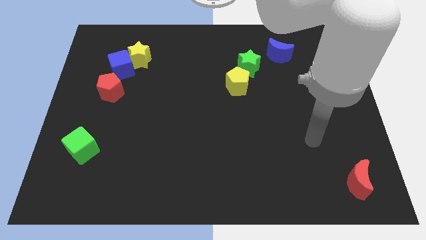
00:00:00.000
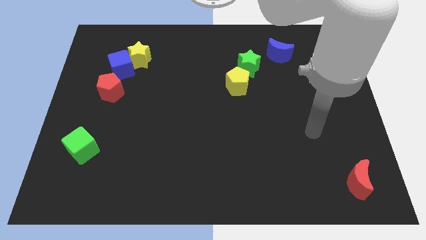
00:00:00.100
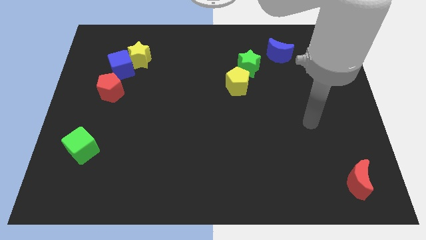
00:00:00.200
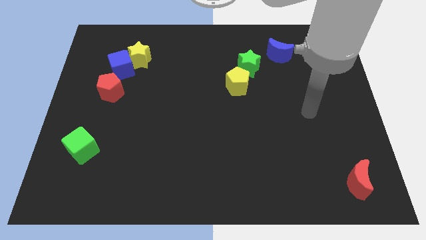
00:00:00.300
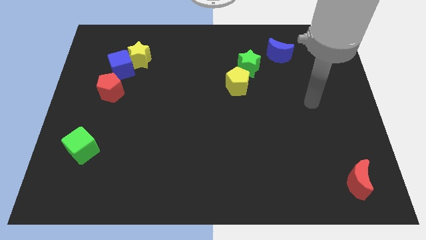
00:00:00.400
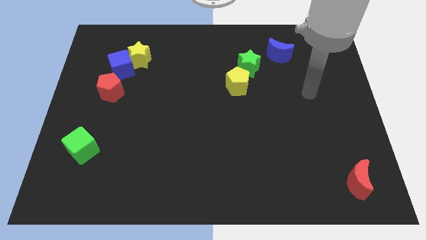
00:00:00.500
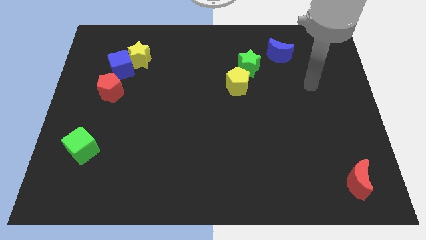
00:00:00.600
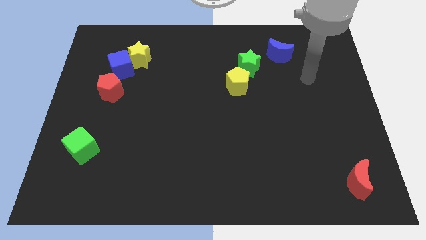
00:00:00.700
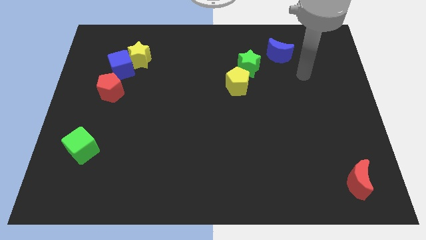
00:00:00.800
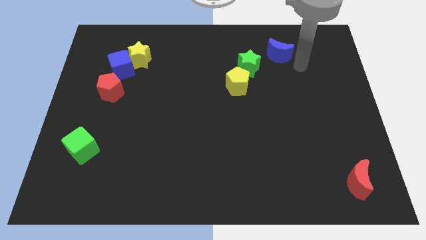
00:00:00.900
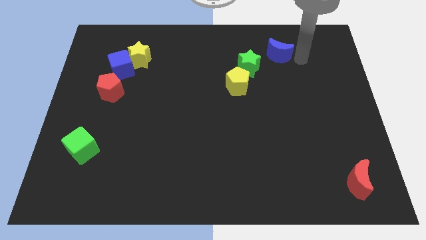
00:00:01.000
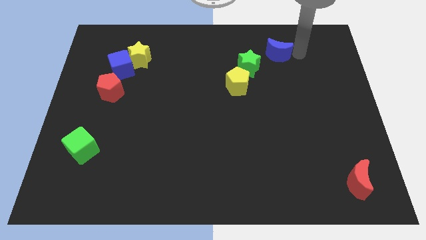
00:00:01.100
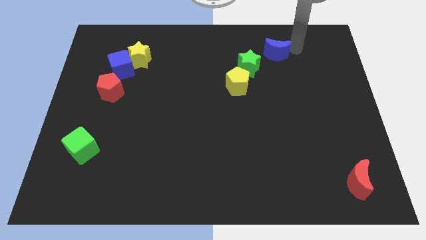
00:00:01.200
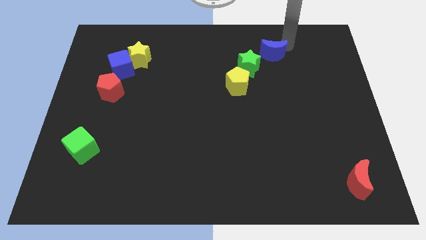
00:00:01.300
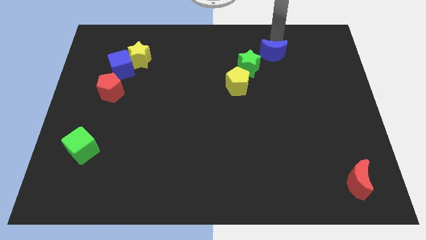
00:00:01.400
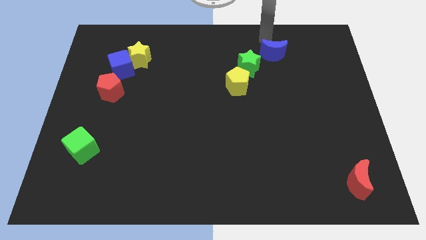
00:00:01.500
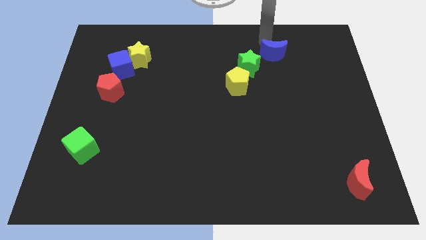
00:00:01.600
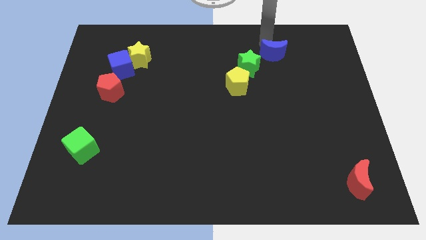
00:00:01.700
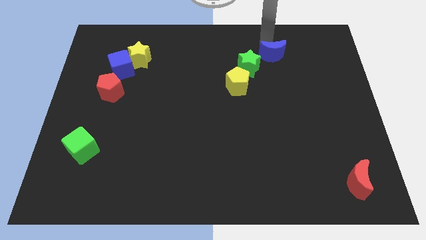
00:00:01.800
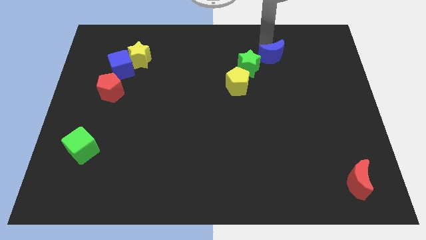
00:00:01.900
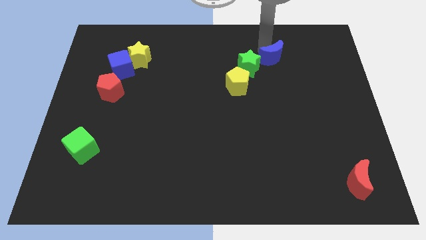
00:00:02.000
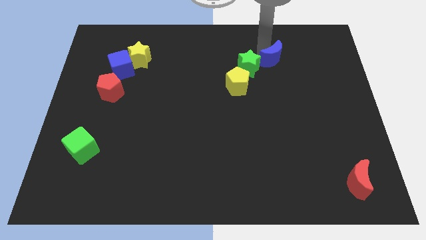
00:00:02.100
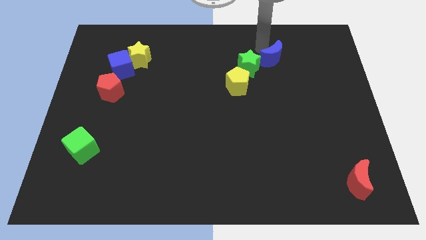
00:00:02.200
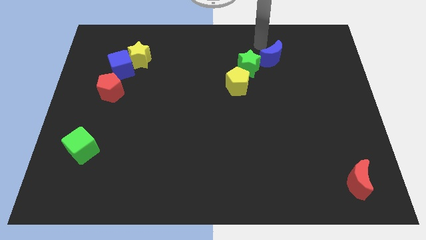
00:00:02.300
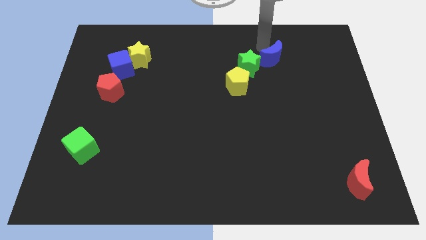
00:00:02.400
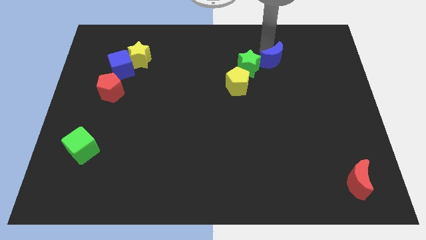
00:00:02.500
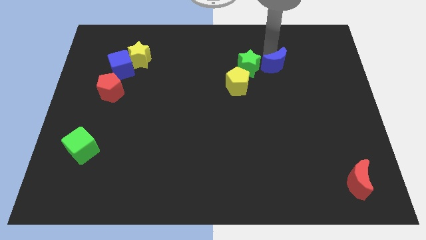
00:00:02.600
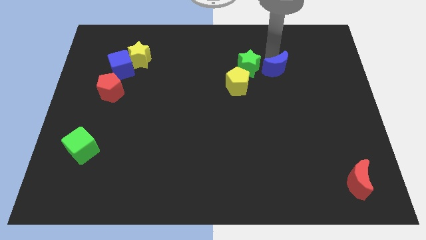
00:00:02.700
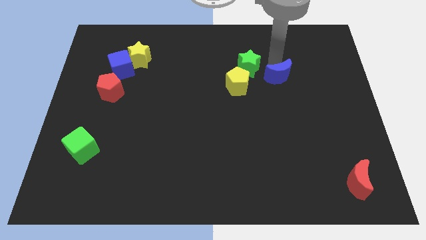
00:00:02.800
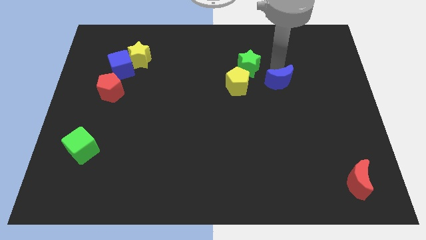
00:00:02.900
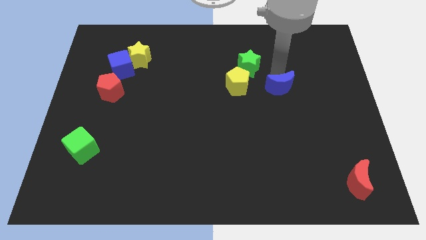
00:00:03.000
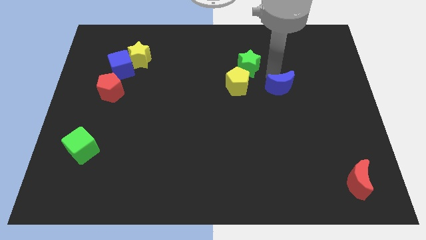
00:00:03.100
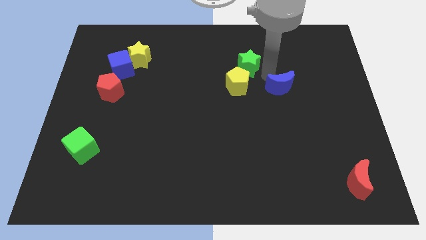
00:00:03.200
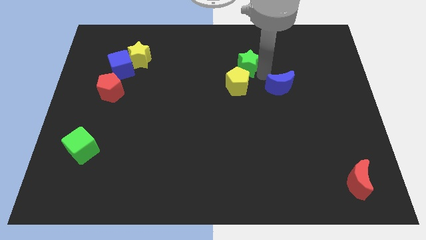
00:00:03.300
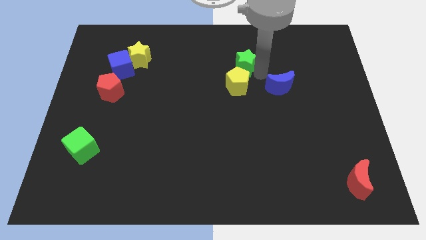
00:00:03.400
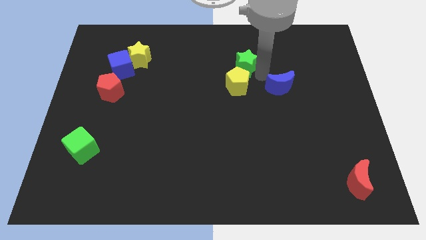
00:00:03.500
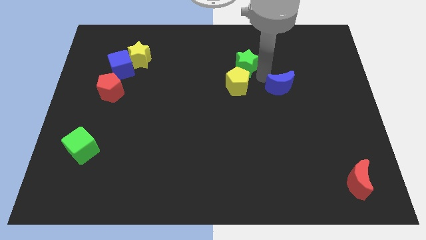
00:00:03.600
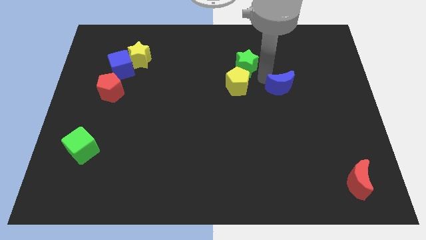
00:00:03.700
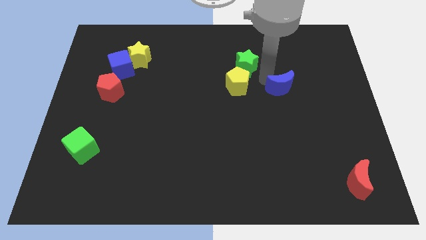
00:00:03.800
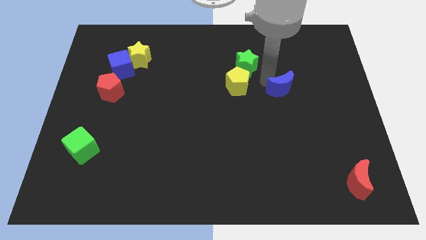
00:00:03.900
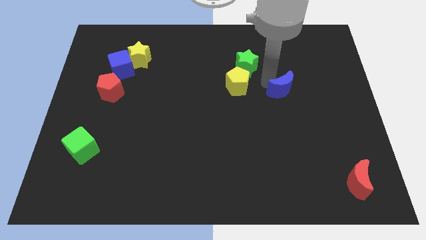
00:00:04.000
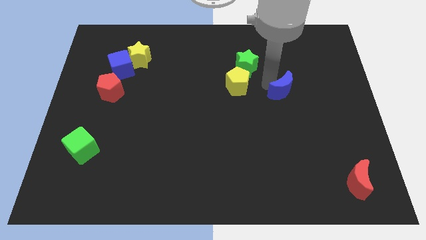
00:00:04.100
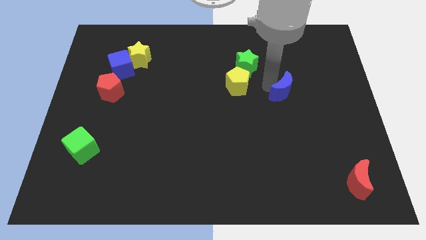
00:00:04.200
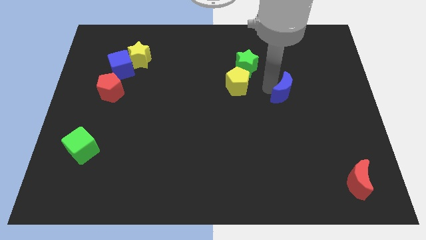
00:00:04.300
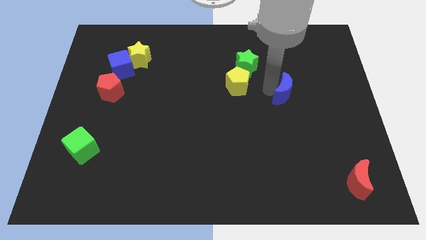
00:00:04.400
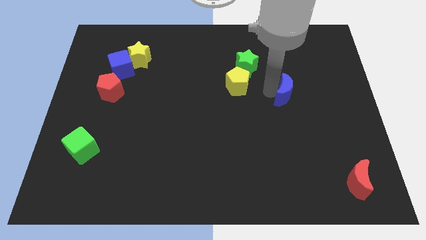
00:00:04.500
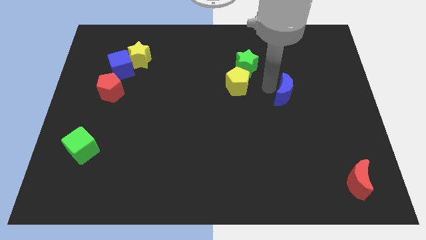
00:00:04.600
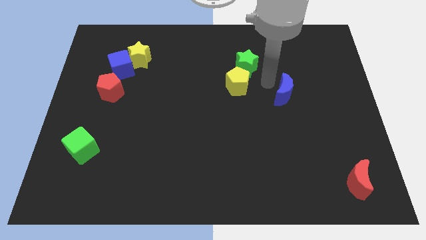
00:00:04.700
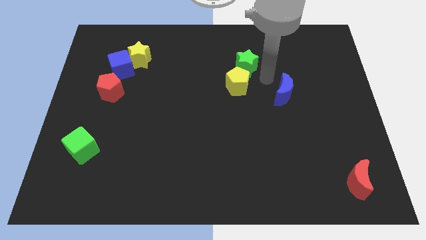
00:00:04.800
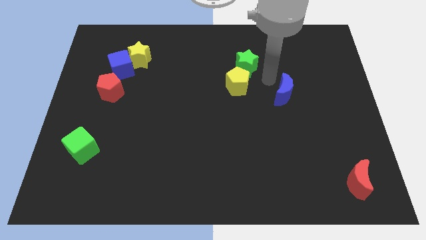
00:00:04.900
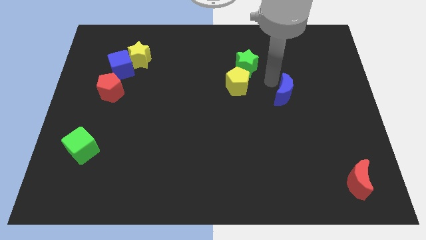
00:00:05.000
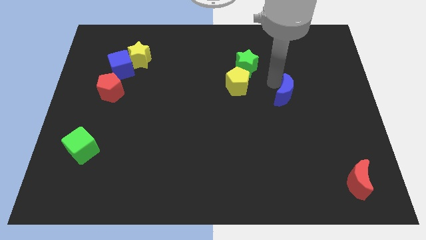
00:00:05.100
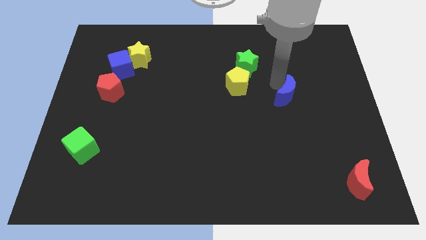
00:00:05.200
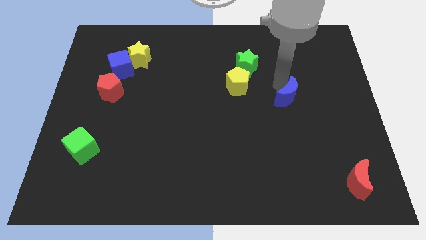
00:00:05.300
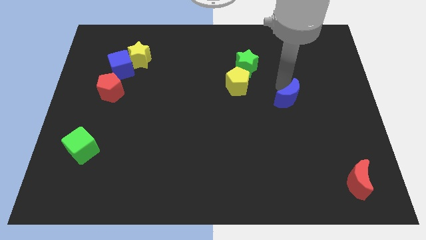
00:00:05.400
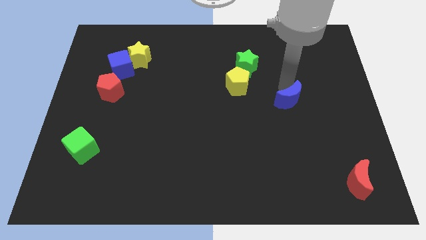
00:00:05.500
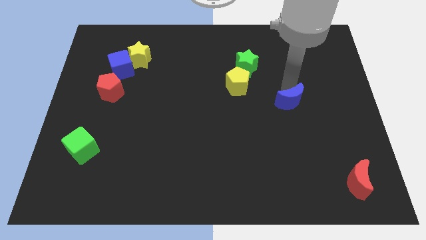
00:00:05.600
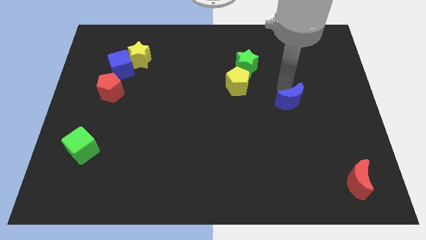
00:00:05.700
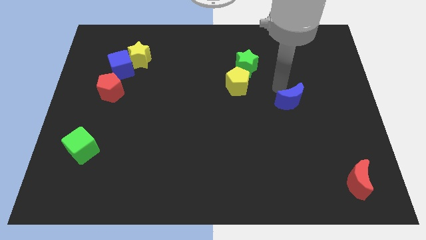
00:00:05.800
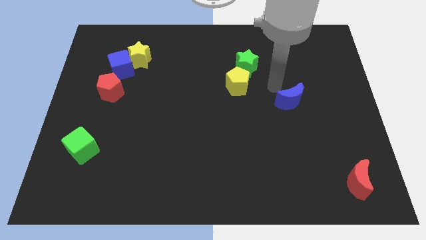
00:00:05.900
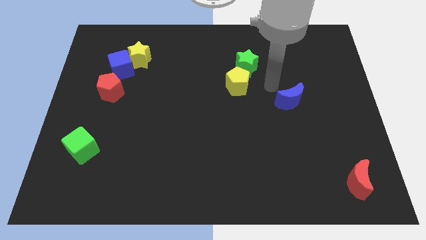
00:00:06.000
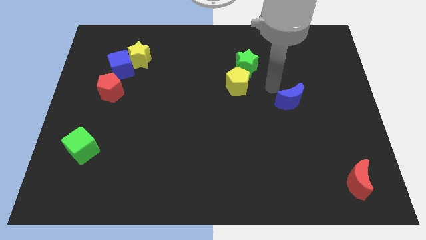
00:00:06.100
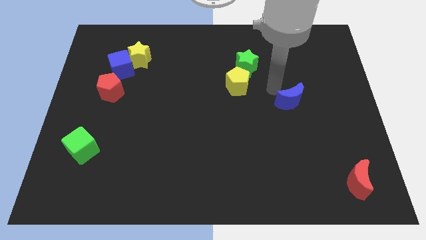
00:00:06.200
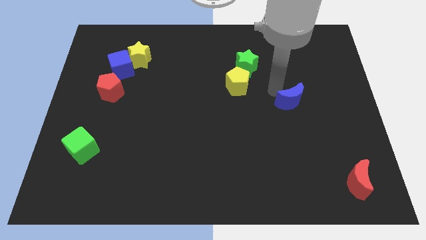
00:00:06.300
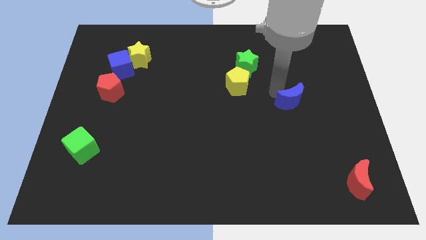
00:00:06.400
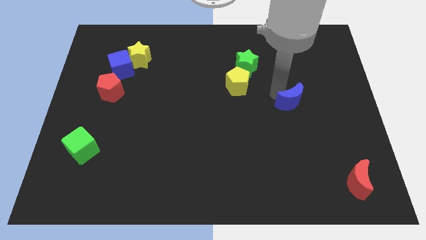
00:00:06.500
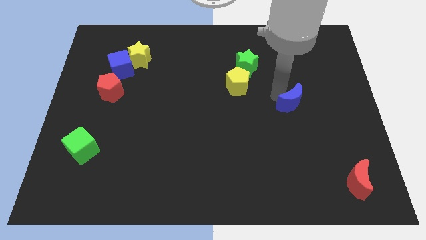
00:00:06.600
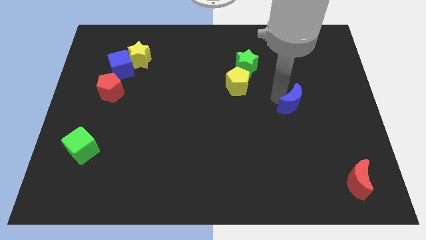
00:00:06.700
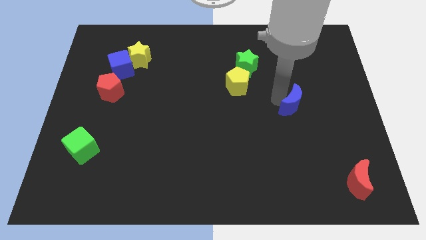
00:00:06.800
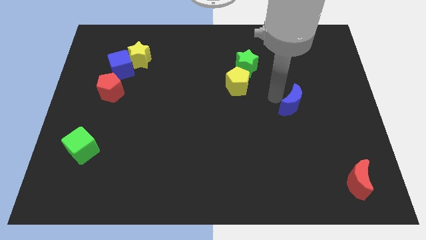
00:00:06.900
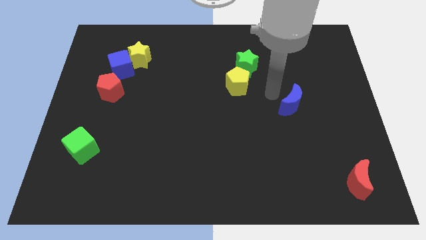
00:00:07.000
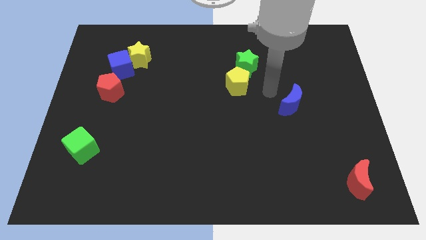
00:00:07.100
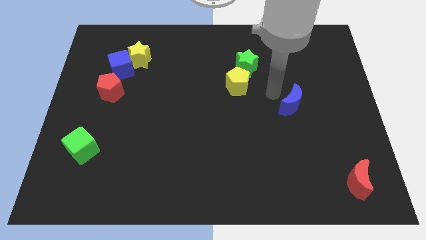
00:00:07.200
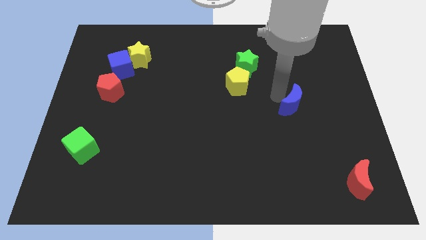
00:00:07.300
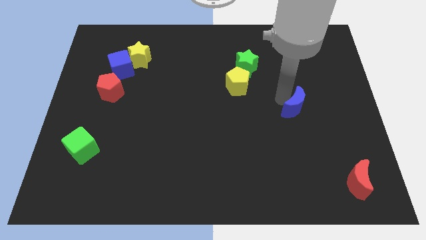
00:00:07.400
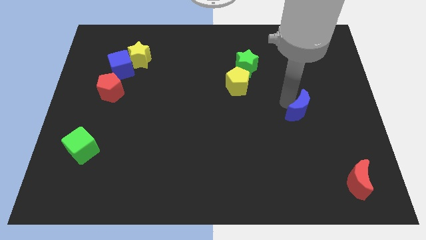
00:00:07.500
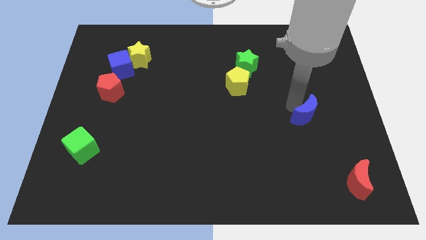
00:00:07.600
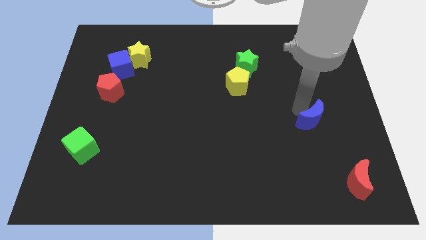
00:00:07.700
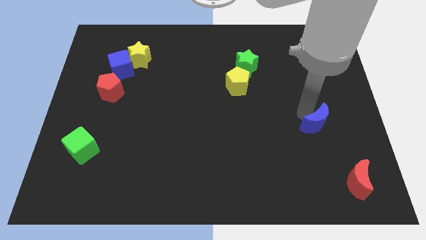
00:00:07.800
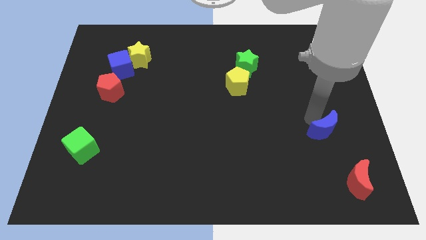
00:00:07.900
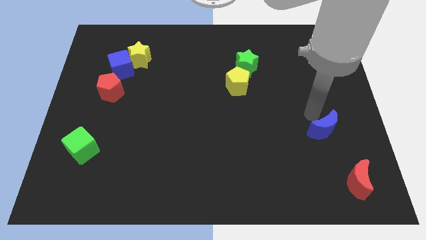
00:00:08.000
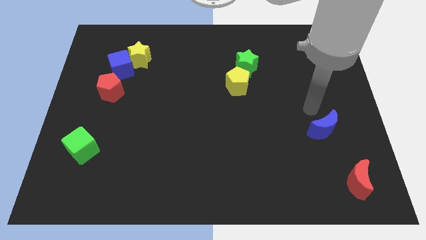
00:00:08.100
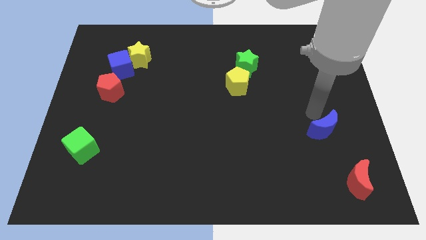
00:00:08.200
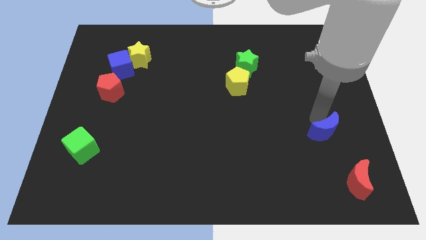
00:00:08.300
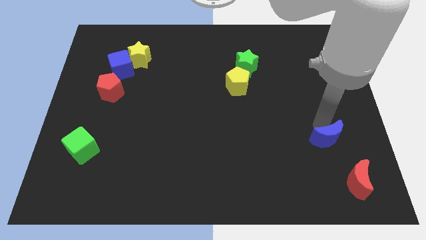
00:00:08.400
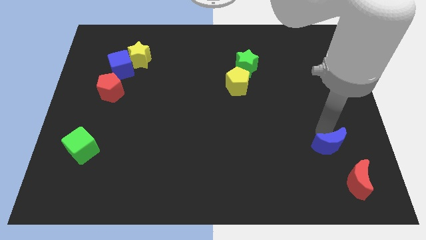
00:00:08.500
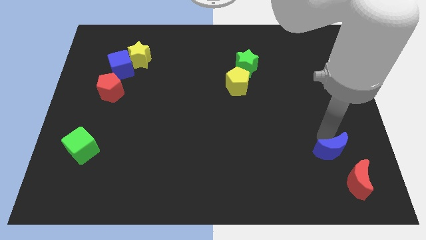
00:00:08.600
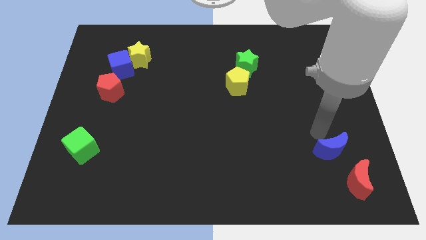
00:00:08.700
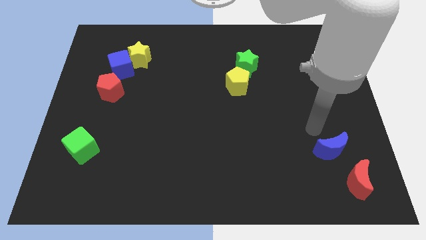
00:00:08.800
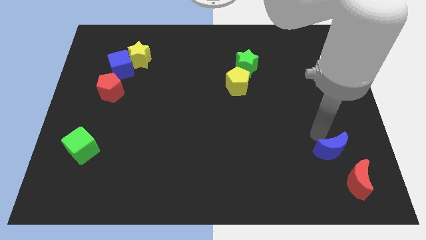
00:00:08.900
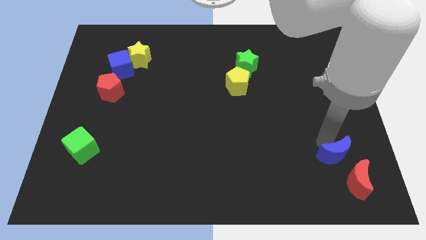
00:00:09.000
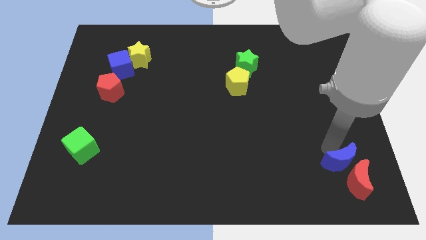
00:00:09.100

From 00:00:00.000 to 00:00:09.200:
slide the blue moon close to the red moon
